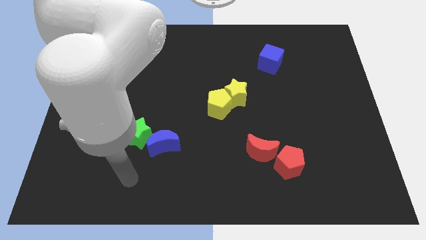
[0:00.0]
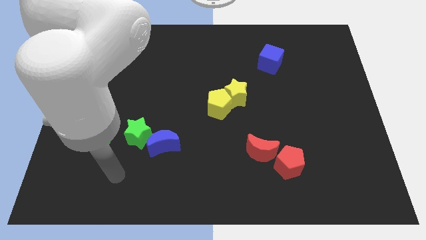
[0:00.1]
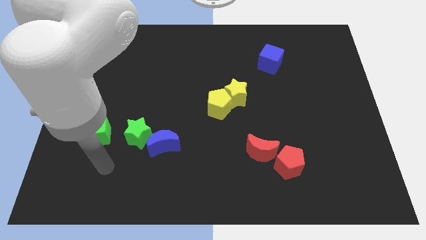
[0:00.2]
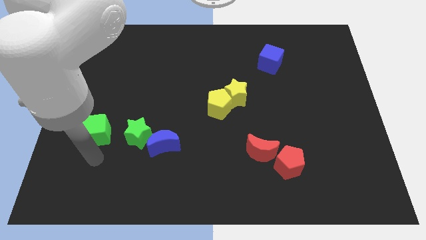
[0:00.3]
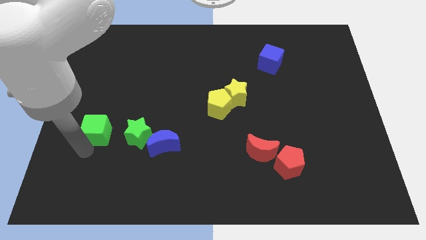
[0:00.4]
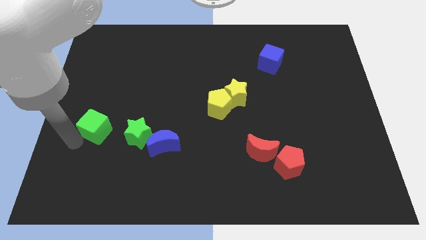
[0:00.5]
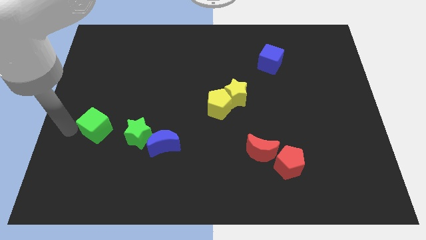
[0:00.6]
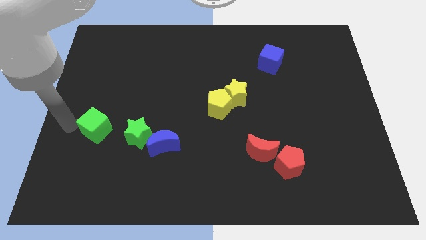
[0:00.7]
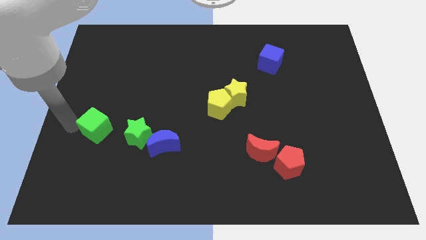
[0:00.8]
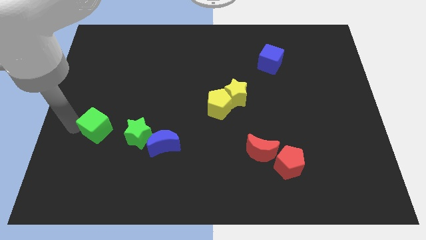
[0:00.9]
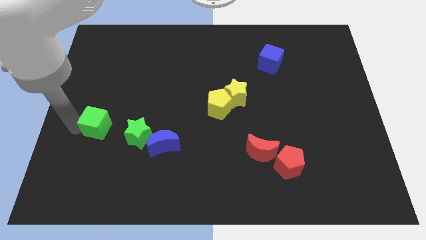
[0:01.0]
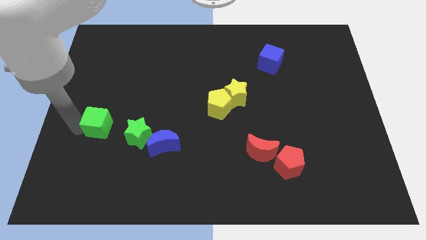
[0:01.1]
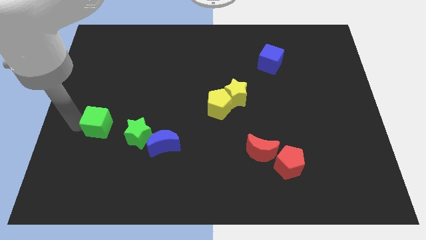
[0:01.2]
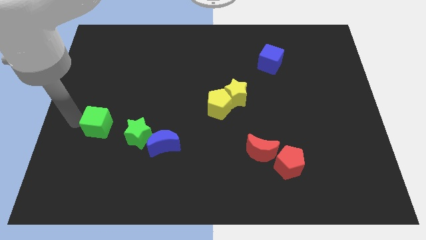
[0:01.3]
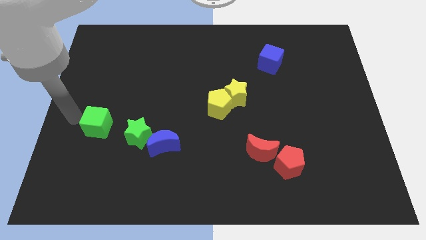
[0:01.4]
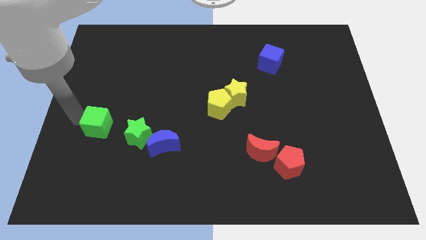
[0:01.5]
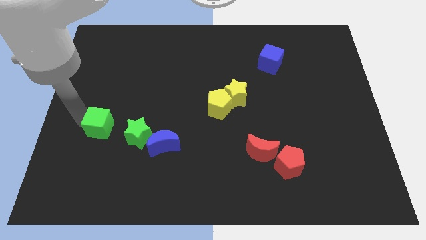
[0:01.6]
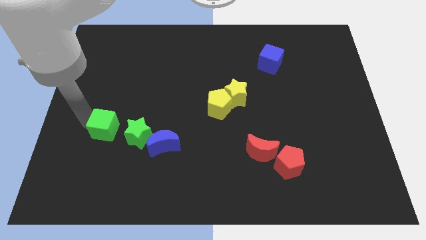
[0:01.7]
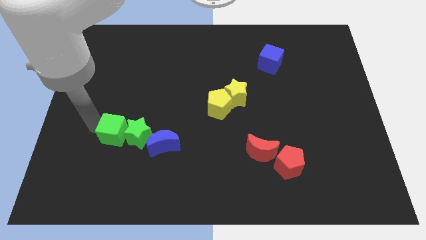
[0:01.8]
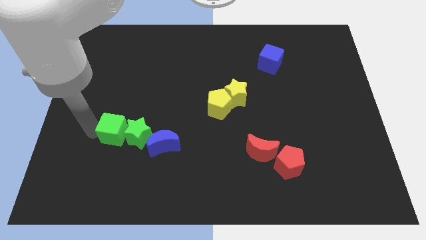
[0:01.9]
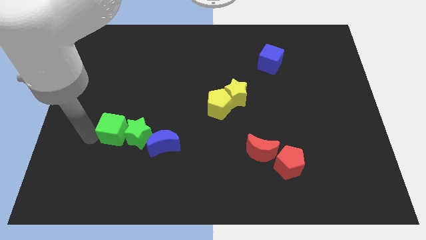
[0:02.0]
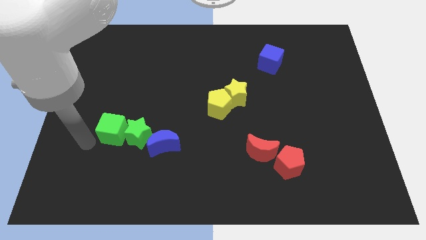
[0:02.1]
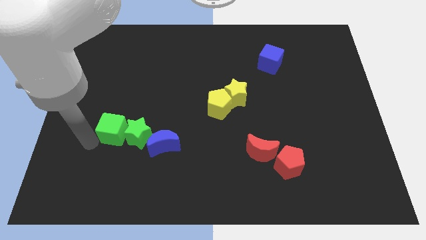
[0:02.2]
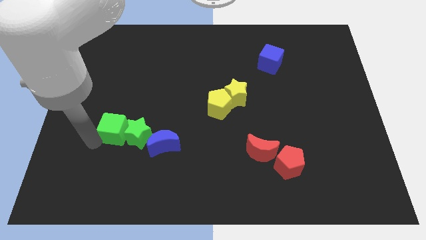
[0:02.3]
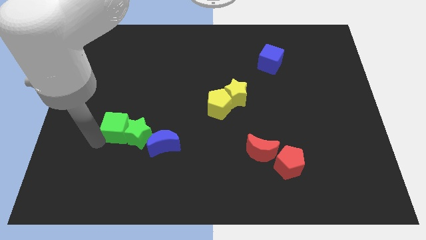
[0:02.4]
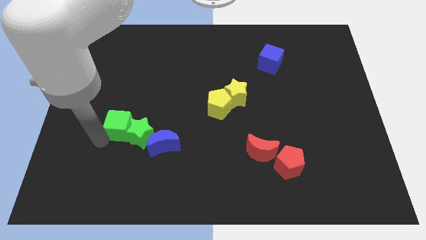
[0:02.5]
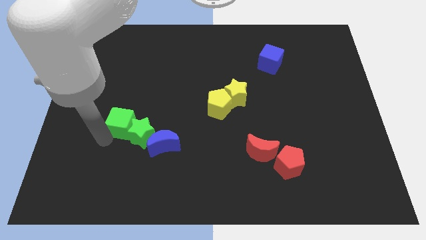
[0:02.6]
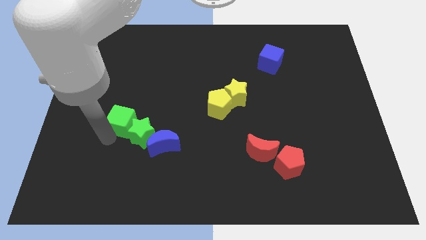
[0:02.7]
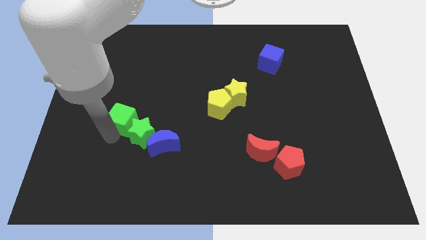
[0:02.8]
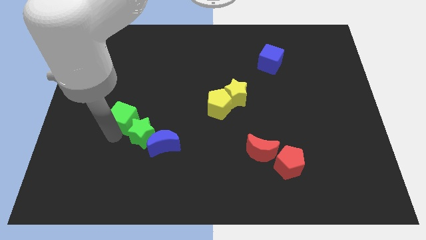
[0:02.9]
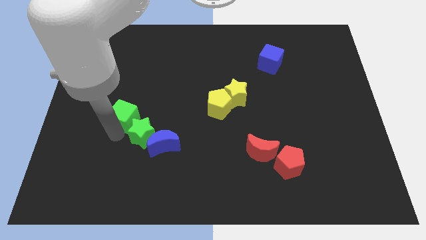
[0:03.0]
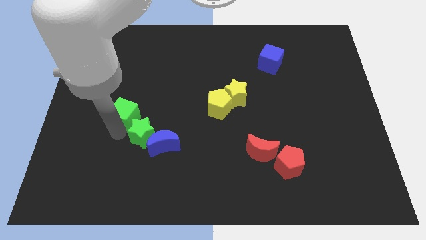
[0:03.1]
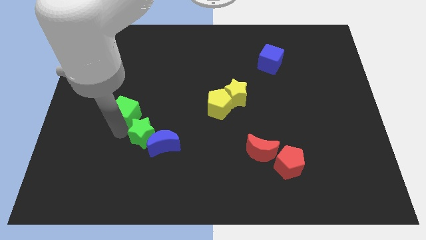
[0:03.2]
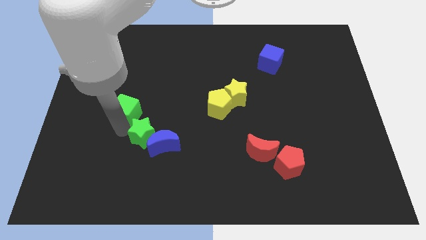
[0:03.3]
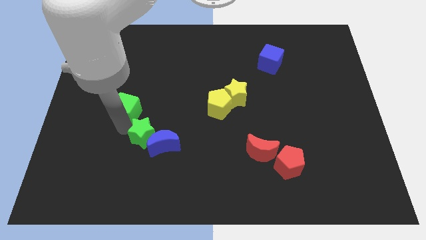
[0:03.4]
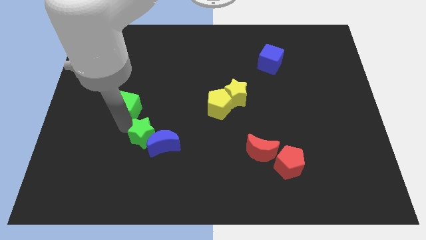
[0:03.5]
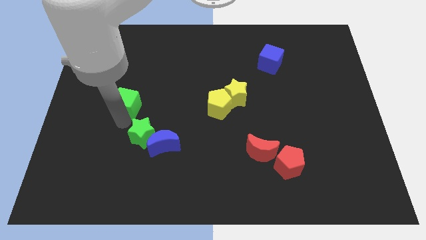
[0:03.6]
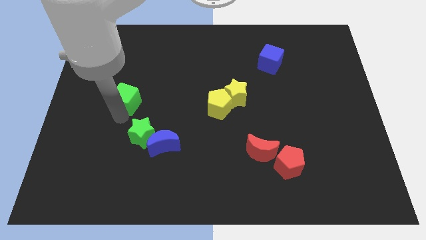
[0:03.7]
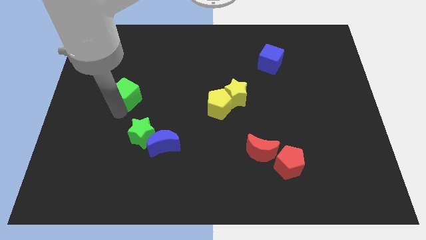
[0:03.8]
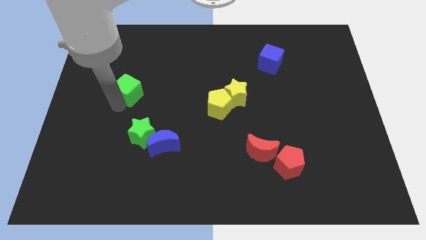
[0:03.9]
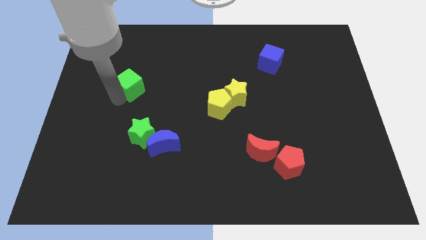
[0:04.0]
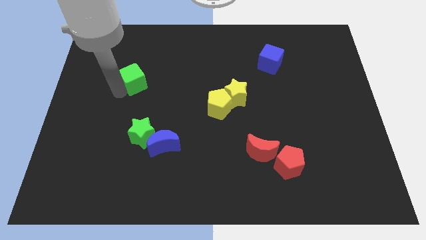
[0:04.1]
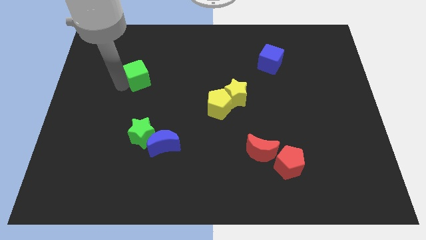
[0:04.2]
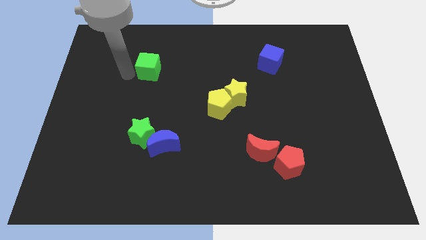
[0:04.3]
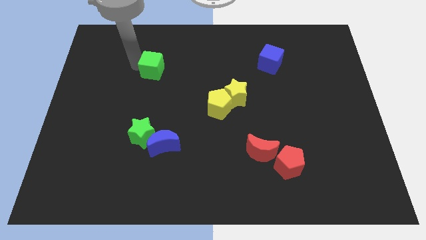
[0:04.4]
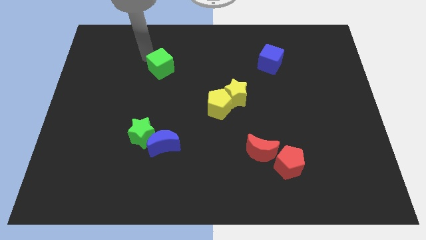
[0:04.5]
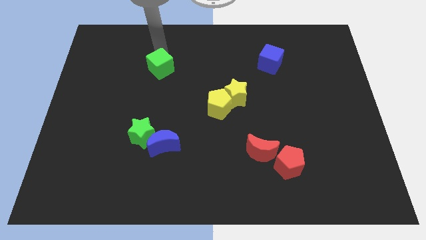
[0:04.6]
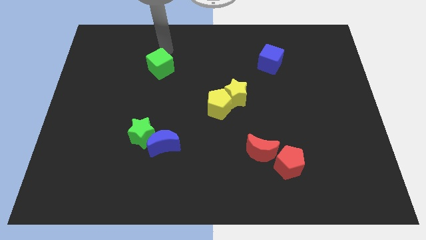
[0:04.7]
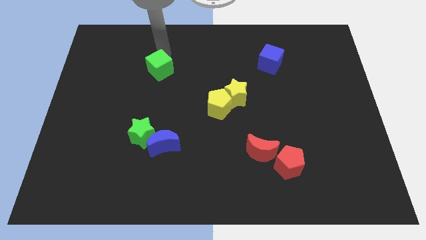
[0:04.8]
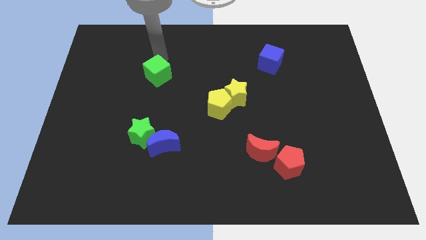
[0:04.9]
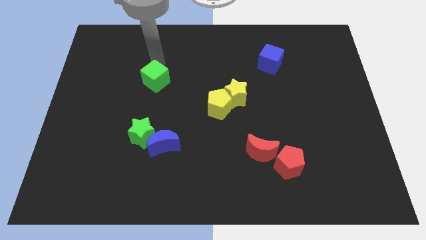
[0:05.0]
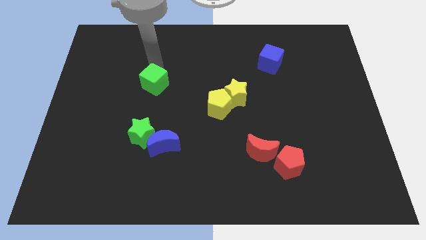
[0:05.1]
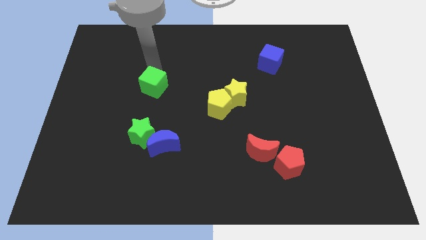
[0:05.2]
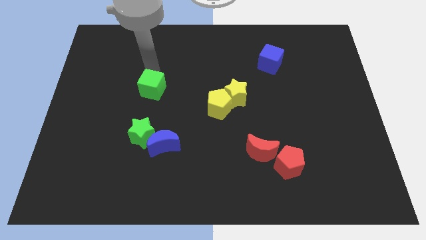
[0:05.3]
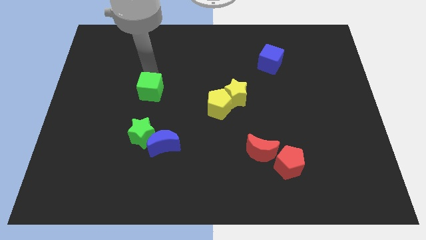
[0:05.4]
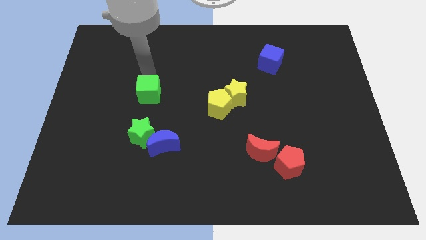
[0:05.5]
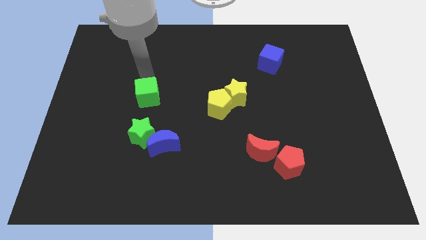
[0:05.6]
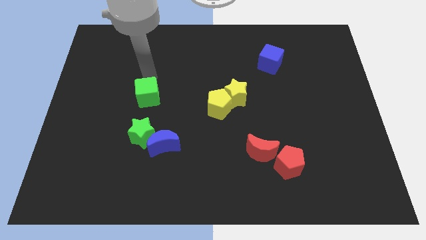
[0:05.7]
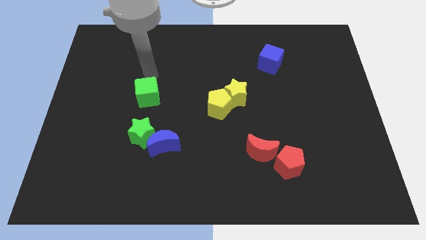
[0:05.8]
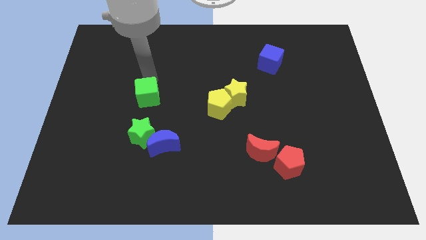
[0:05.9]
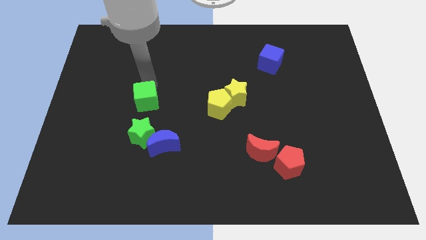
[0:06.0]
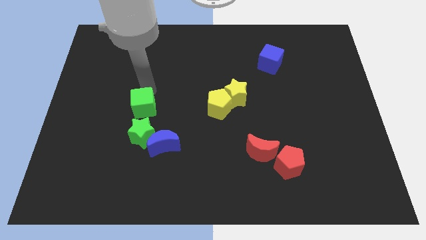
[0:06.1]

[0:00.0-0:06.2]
slide the green cube right somewhat

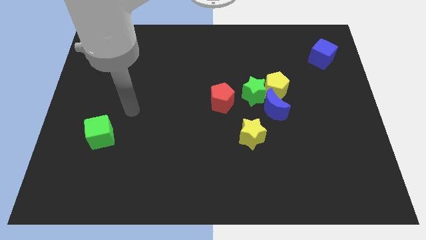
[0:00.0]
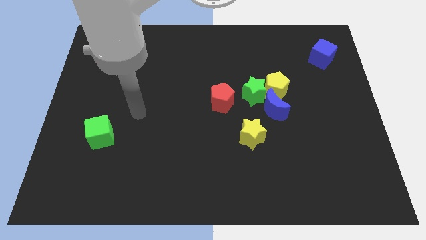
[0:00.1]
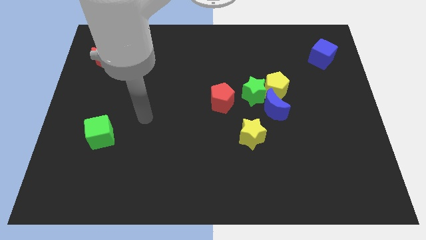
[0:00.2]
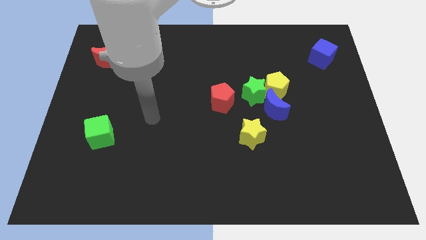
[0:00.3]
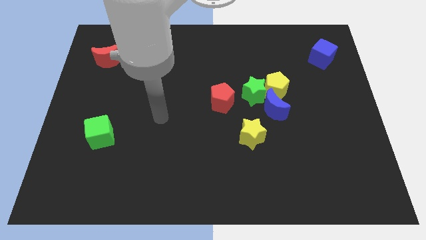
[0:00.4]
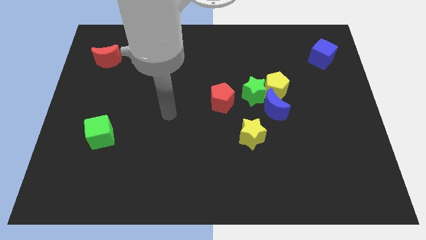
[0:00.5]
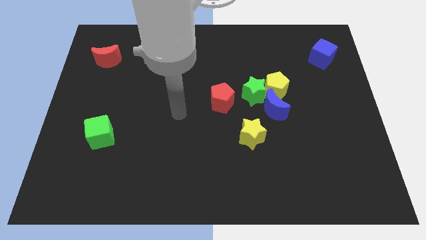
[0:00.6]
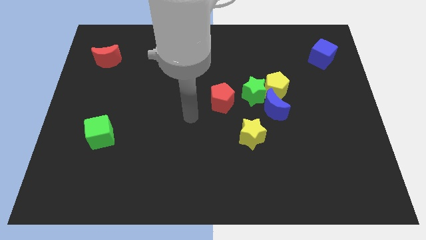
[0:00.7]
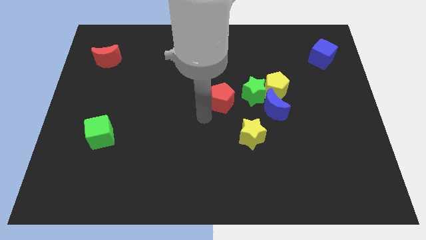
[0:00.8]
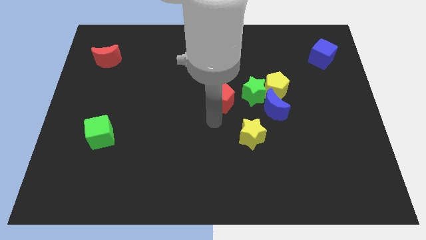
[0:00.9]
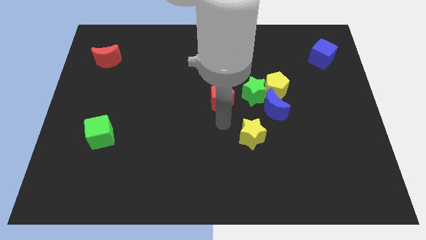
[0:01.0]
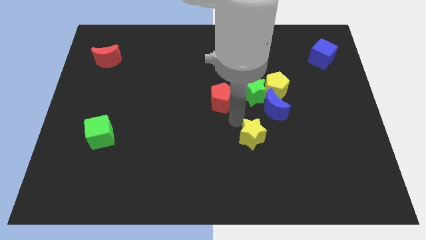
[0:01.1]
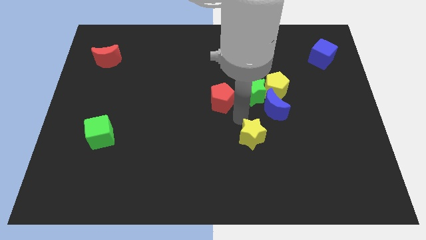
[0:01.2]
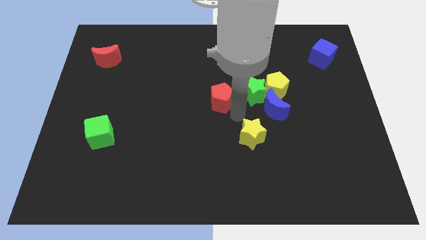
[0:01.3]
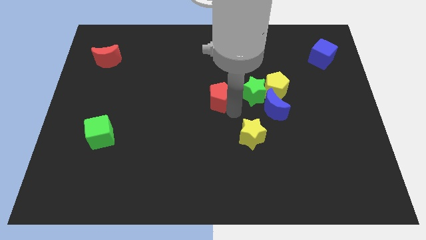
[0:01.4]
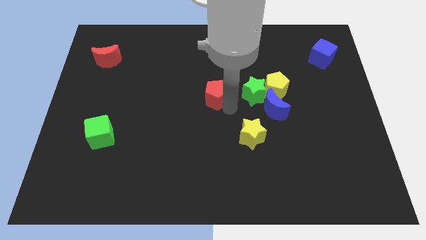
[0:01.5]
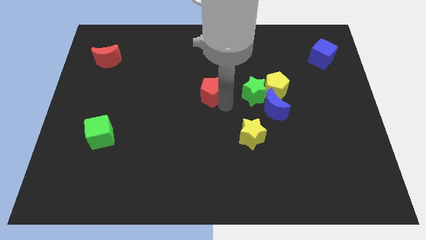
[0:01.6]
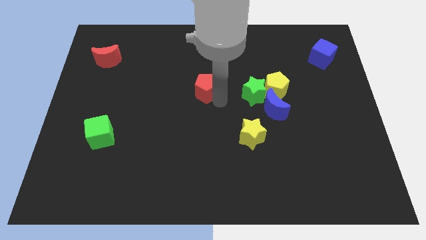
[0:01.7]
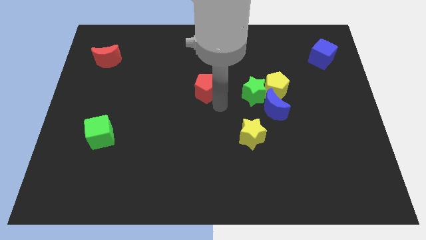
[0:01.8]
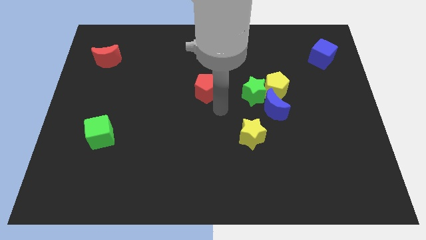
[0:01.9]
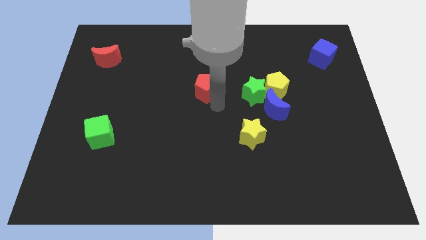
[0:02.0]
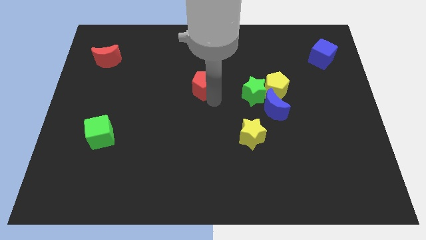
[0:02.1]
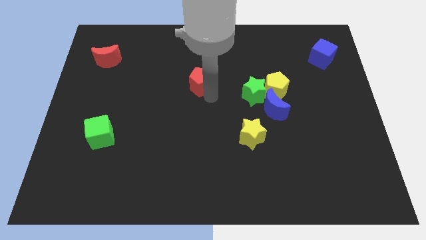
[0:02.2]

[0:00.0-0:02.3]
move the red pentagon a bit up and left
